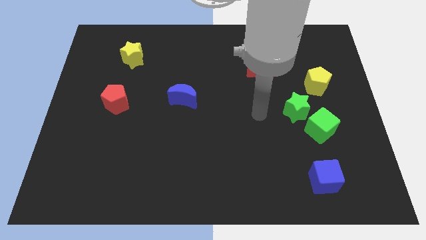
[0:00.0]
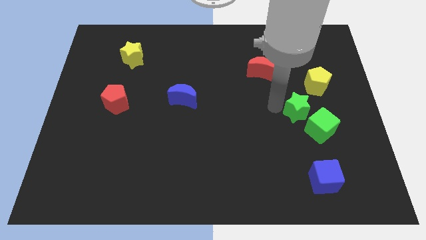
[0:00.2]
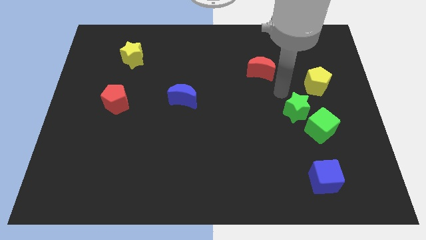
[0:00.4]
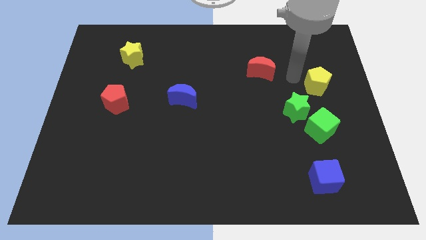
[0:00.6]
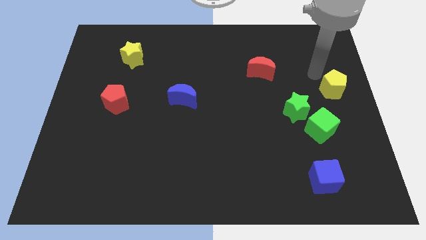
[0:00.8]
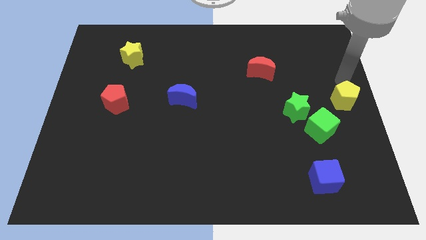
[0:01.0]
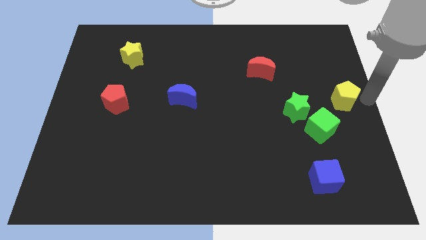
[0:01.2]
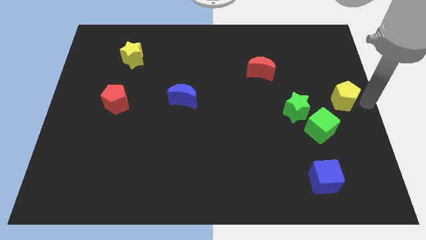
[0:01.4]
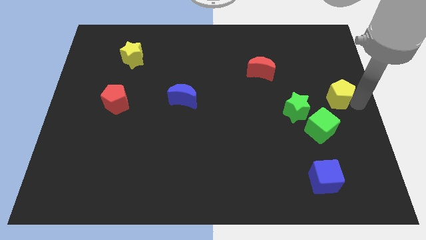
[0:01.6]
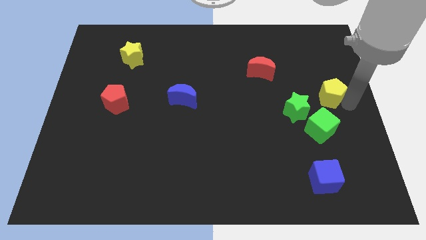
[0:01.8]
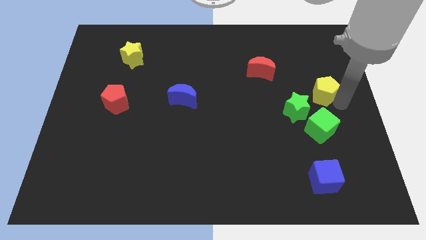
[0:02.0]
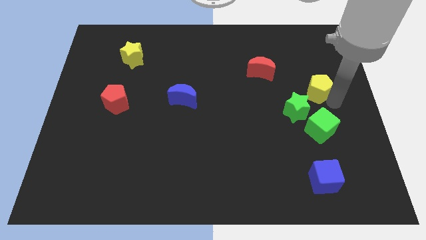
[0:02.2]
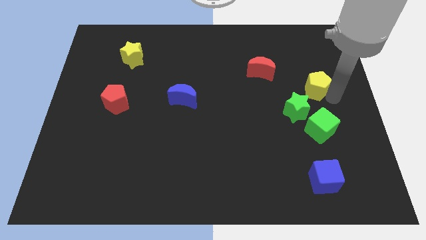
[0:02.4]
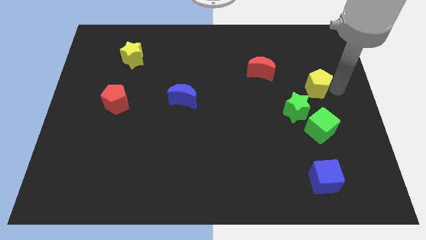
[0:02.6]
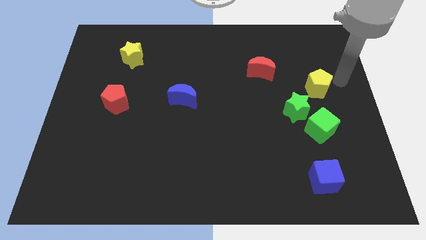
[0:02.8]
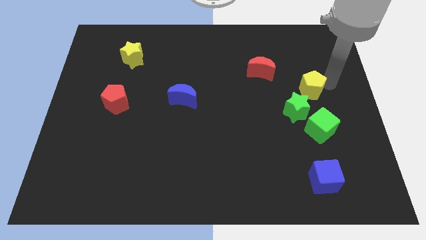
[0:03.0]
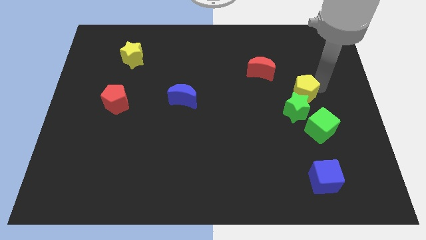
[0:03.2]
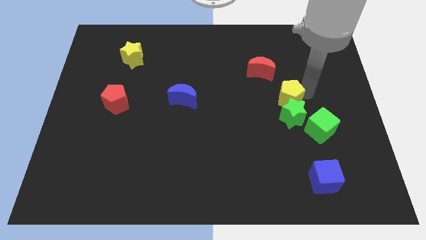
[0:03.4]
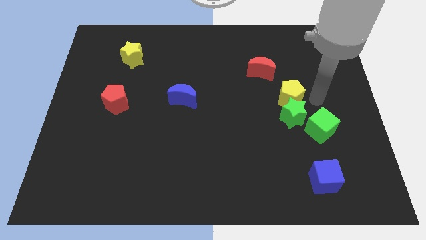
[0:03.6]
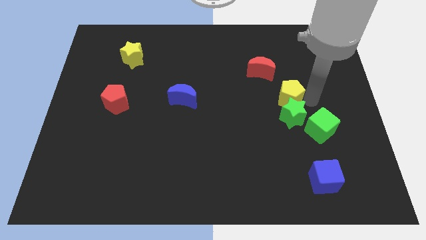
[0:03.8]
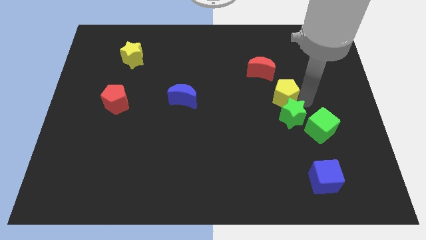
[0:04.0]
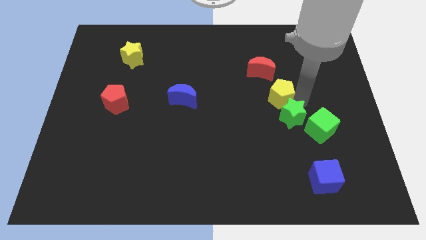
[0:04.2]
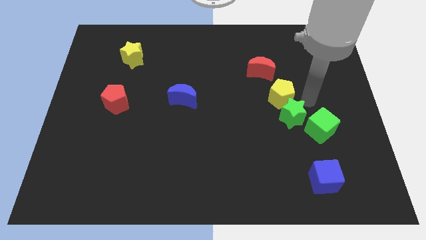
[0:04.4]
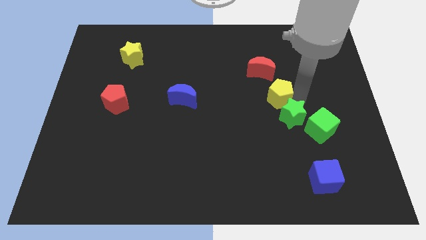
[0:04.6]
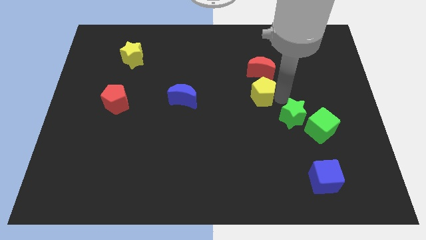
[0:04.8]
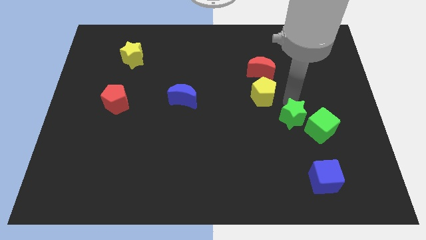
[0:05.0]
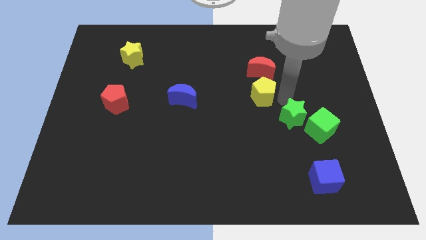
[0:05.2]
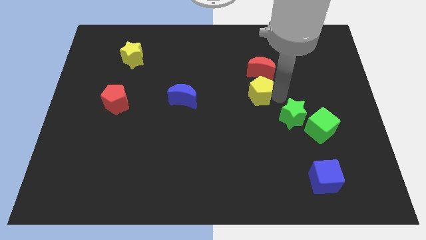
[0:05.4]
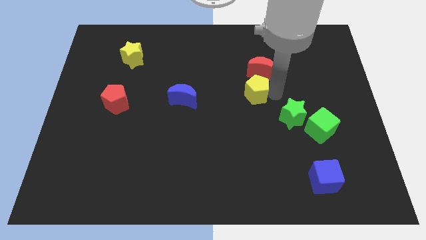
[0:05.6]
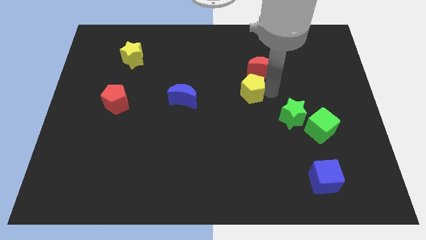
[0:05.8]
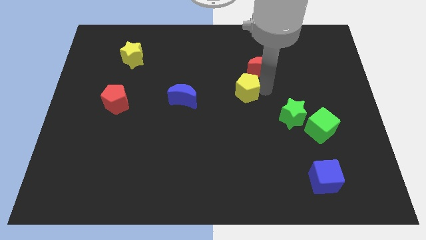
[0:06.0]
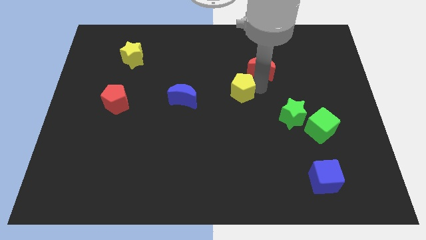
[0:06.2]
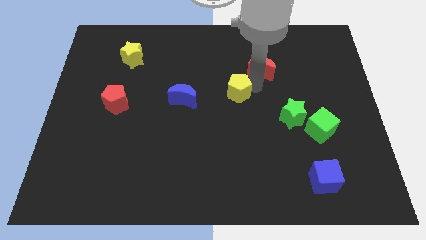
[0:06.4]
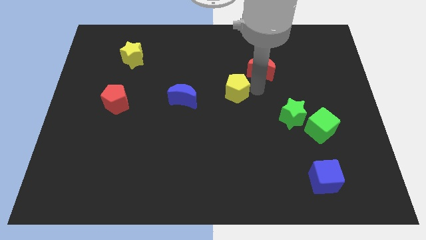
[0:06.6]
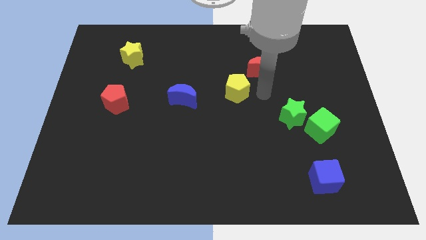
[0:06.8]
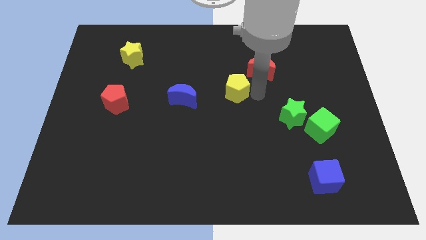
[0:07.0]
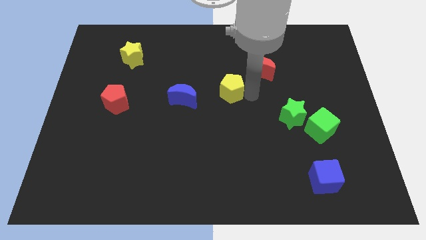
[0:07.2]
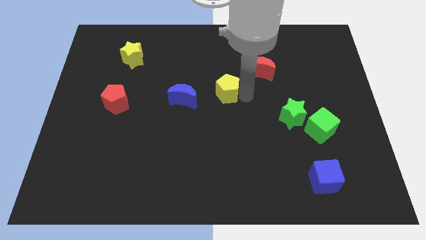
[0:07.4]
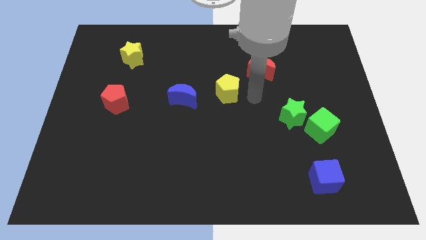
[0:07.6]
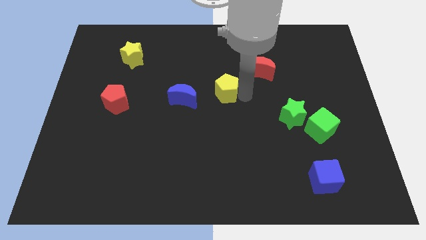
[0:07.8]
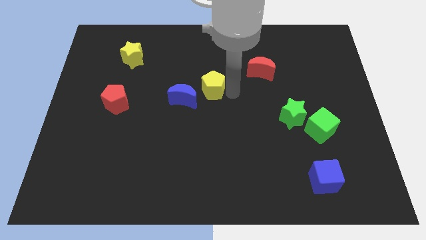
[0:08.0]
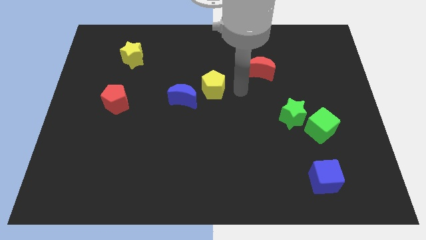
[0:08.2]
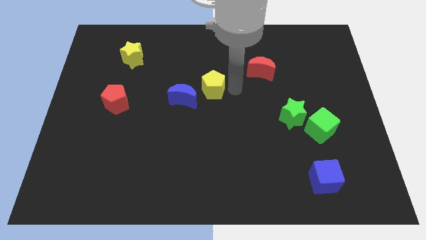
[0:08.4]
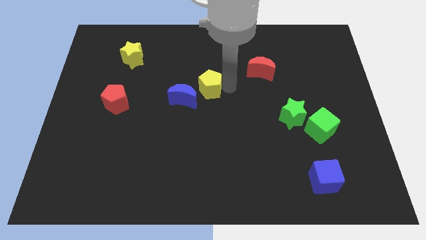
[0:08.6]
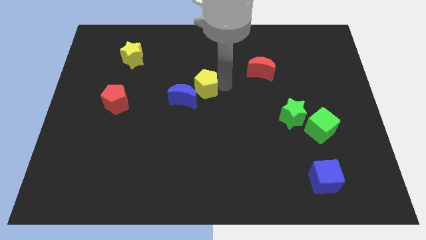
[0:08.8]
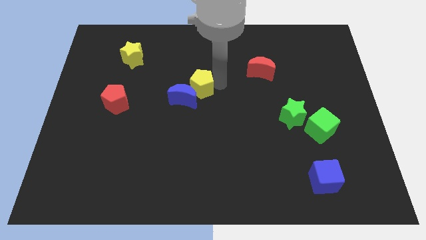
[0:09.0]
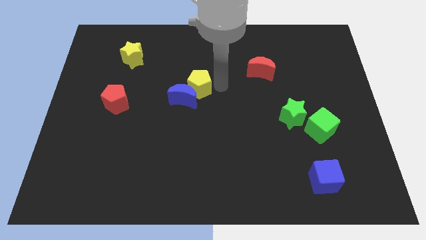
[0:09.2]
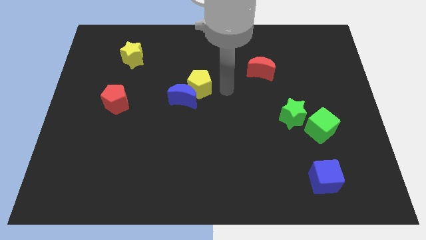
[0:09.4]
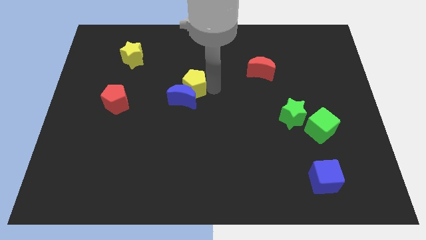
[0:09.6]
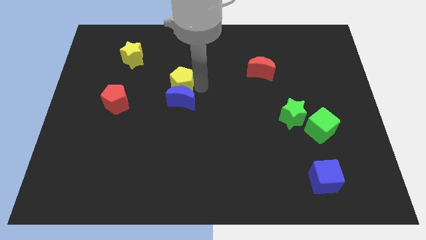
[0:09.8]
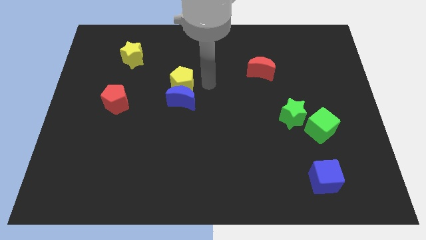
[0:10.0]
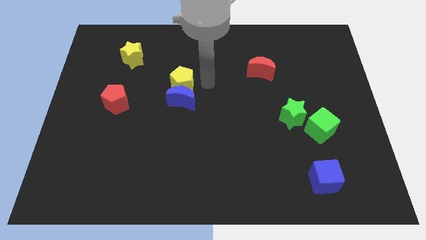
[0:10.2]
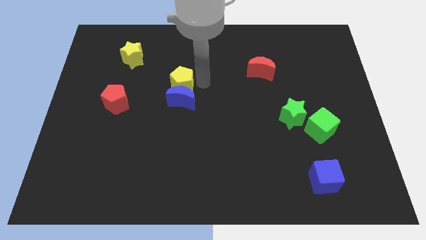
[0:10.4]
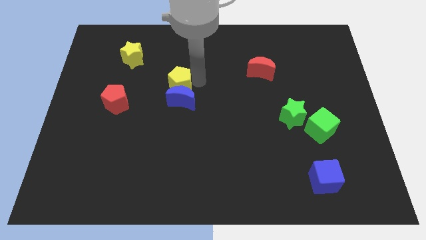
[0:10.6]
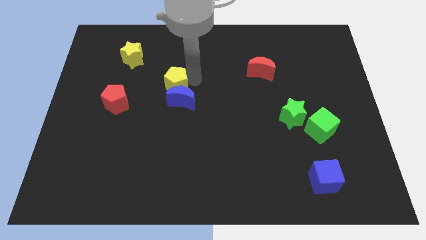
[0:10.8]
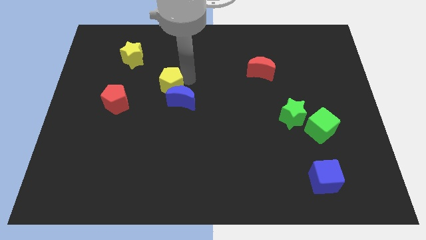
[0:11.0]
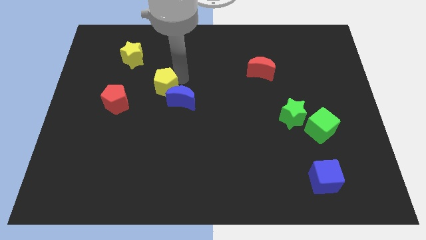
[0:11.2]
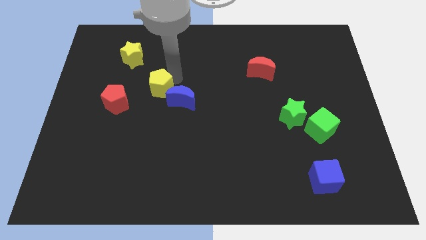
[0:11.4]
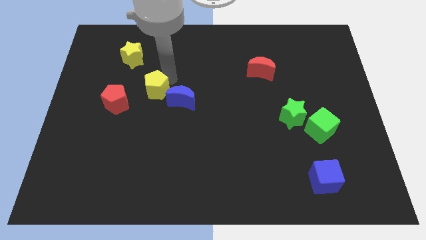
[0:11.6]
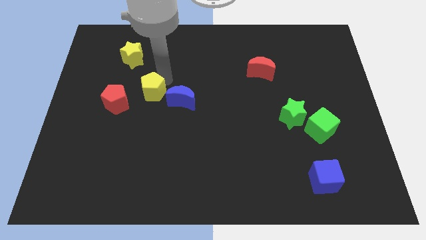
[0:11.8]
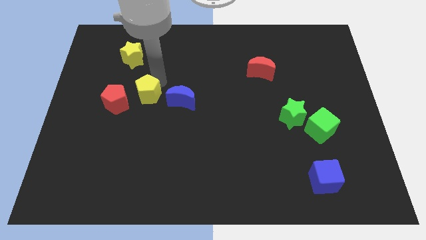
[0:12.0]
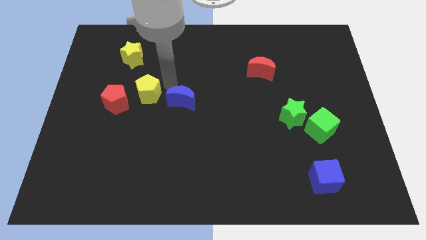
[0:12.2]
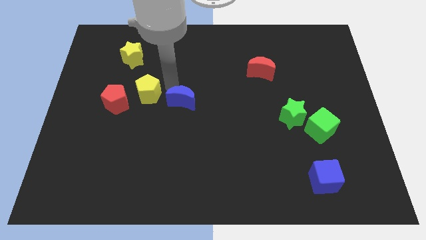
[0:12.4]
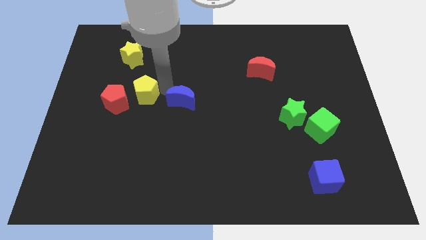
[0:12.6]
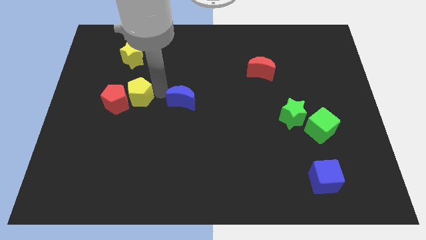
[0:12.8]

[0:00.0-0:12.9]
slide the yellow pentagon close to the red pentagon

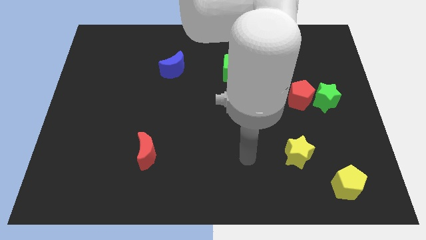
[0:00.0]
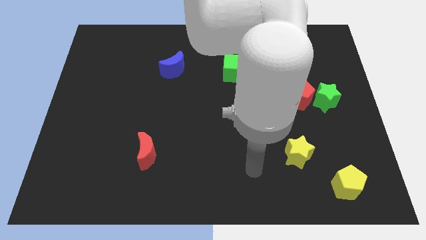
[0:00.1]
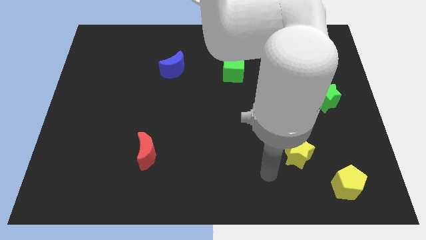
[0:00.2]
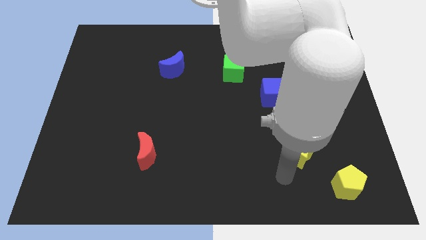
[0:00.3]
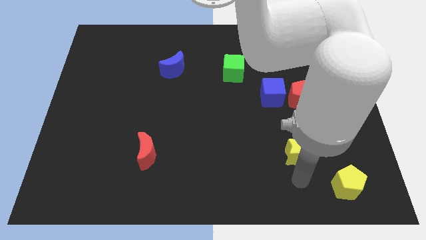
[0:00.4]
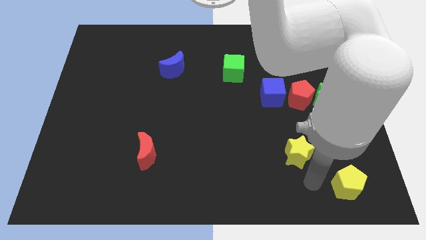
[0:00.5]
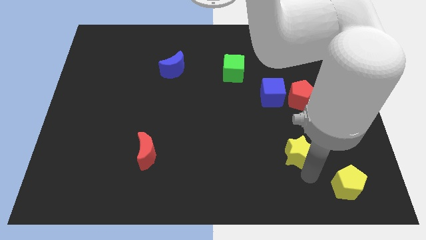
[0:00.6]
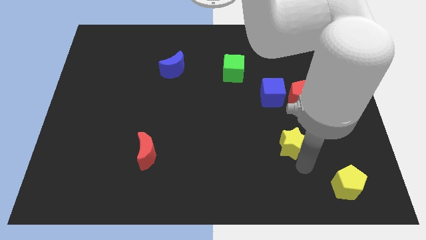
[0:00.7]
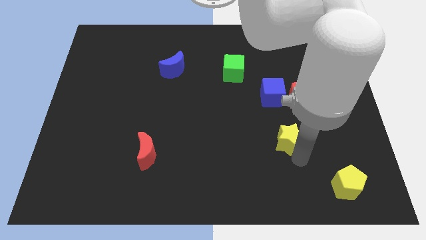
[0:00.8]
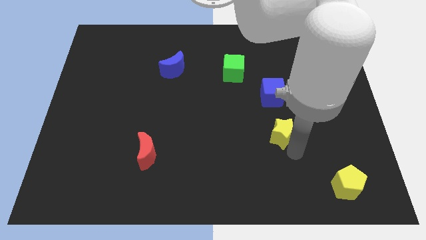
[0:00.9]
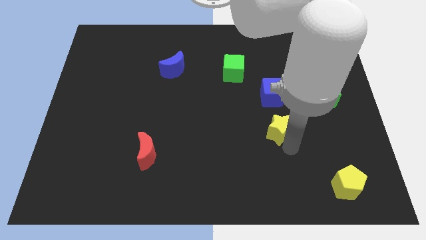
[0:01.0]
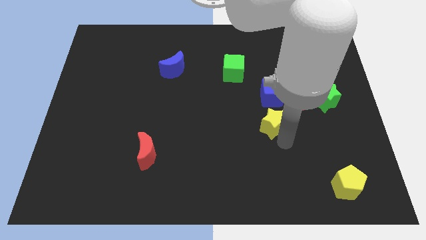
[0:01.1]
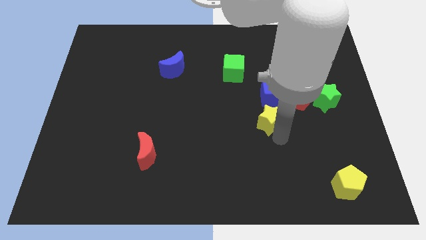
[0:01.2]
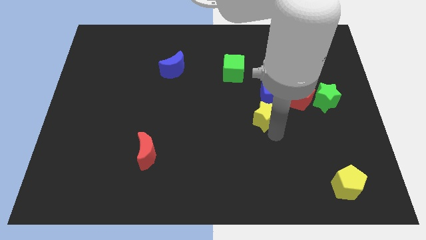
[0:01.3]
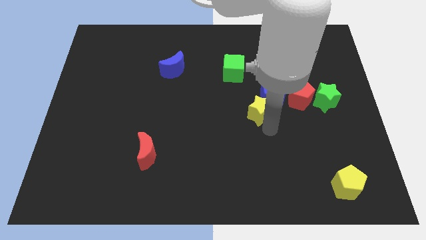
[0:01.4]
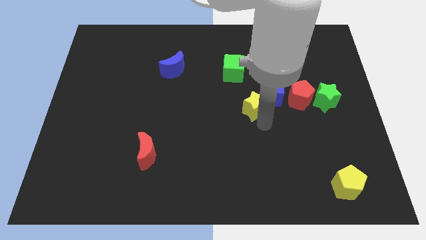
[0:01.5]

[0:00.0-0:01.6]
push the yellow star next to the blue cube
